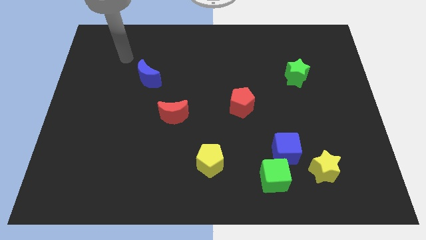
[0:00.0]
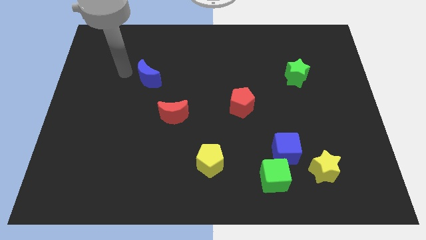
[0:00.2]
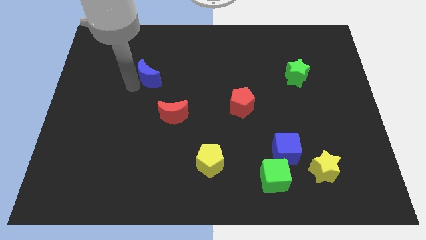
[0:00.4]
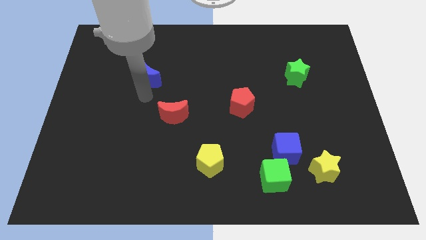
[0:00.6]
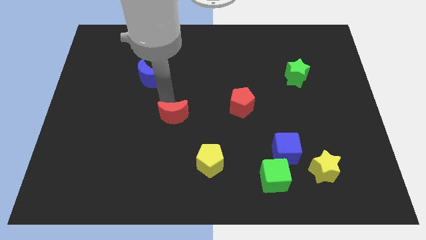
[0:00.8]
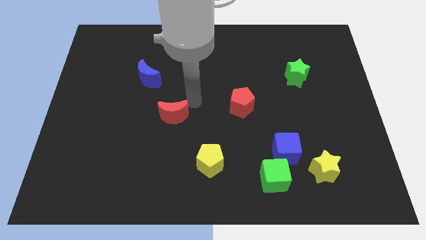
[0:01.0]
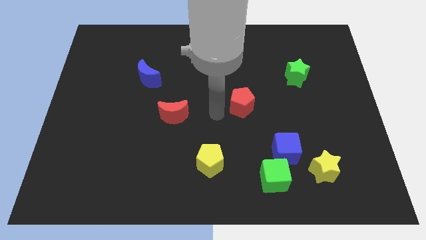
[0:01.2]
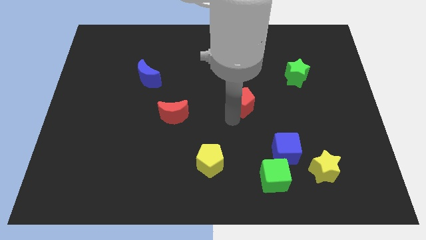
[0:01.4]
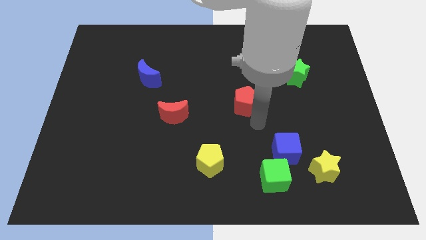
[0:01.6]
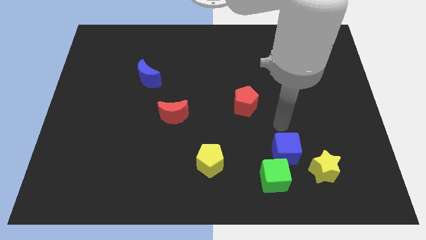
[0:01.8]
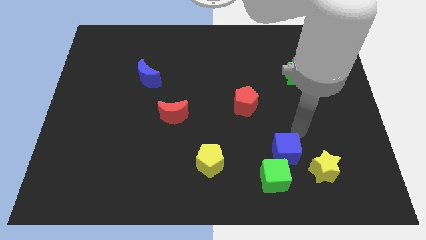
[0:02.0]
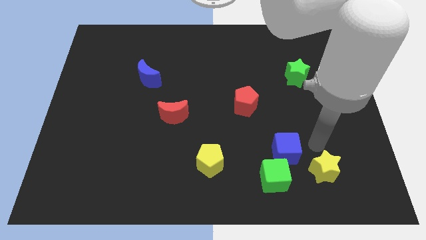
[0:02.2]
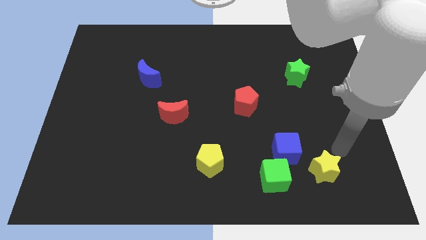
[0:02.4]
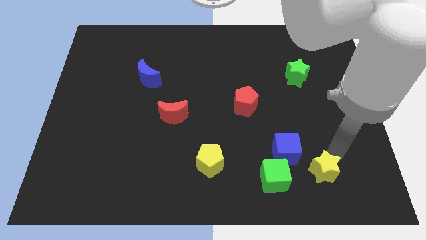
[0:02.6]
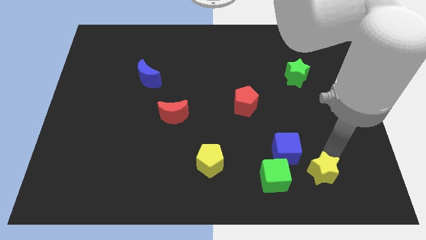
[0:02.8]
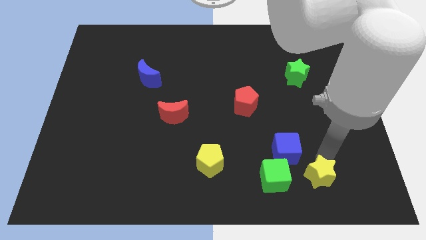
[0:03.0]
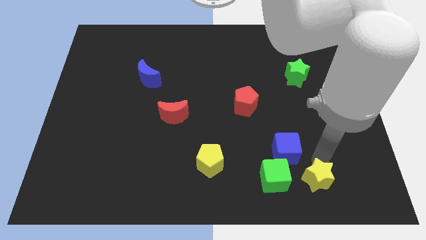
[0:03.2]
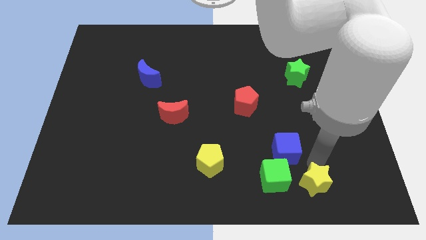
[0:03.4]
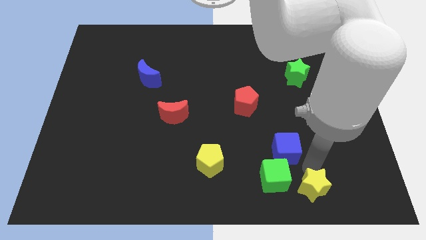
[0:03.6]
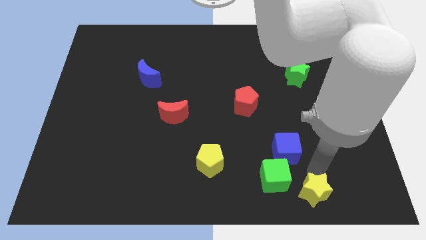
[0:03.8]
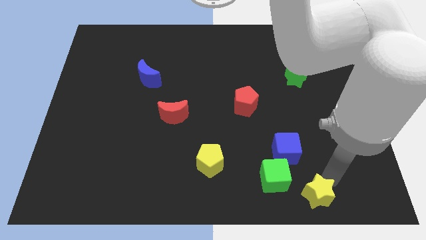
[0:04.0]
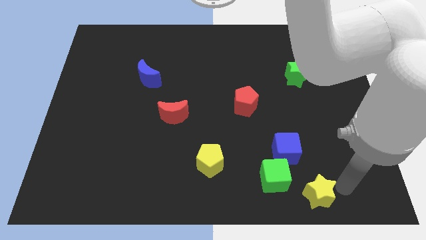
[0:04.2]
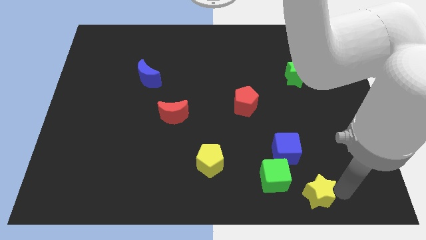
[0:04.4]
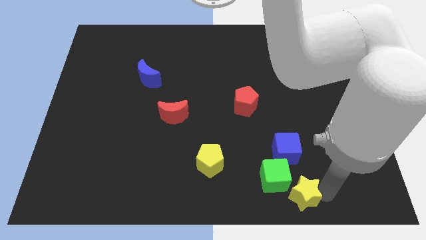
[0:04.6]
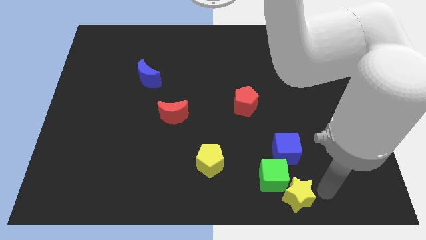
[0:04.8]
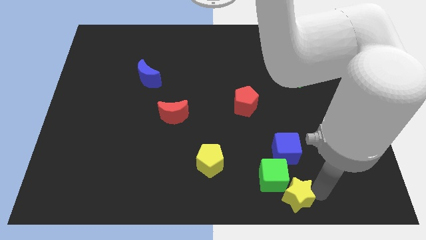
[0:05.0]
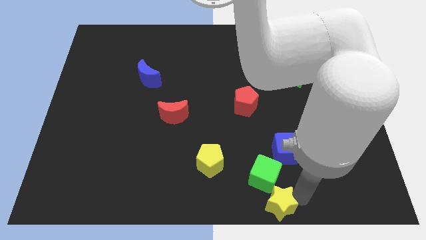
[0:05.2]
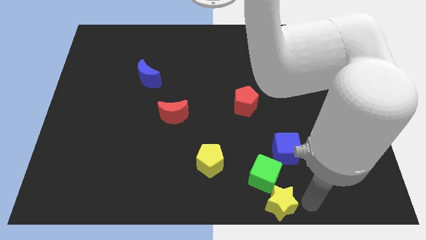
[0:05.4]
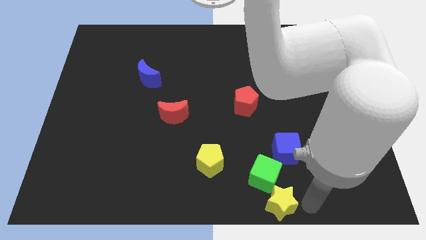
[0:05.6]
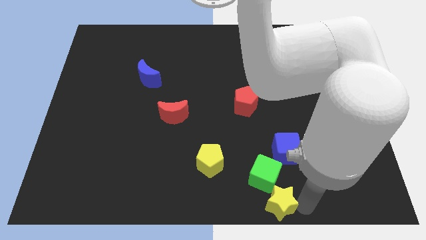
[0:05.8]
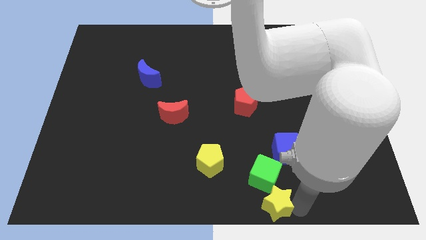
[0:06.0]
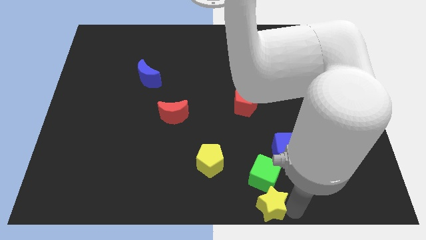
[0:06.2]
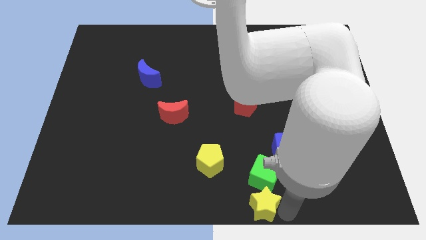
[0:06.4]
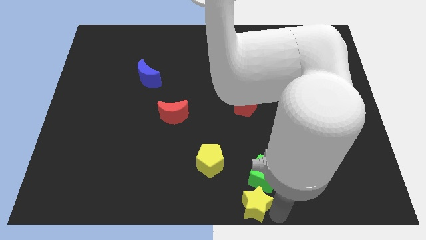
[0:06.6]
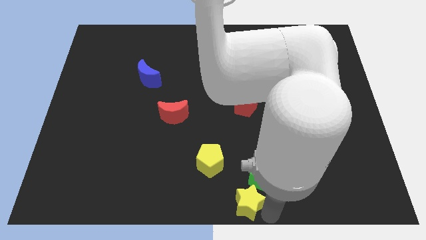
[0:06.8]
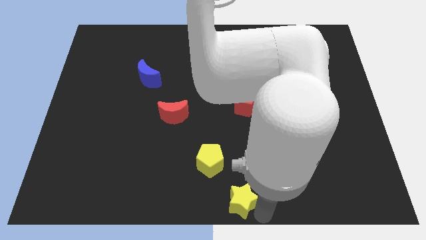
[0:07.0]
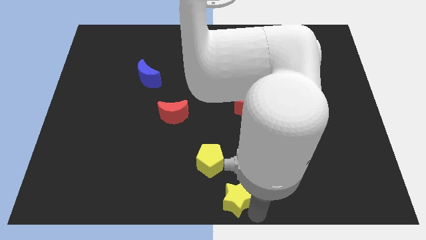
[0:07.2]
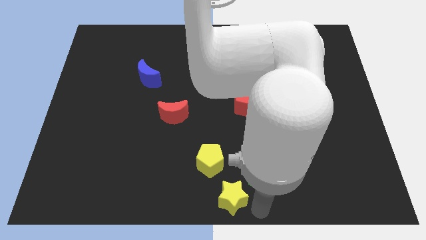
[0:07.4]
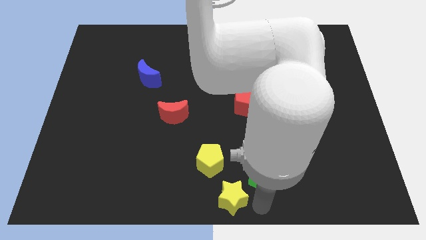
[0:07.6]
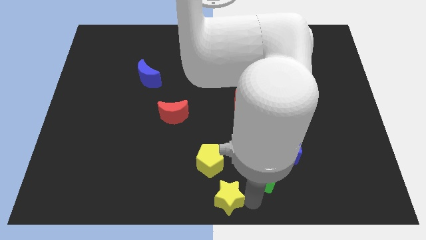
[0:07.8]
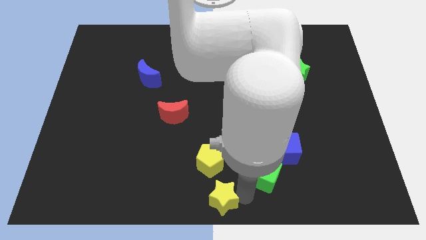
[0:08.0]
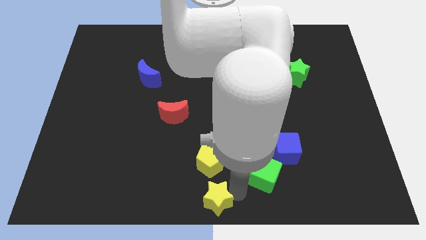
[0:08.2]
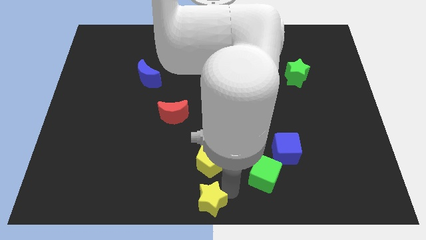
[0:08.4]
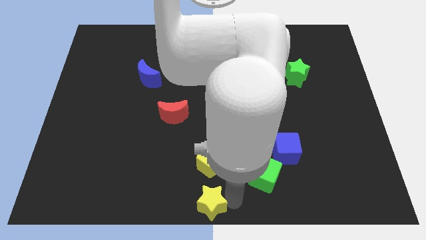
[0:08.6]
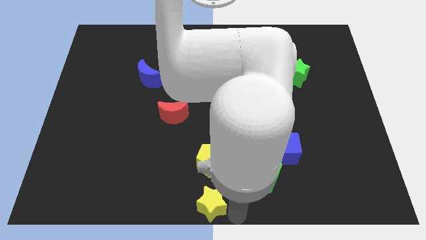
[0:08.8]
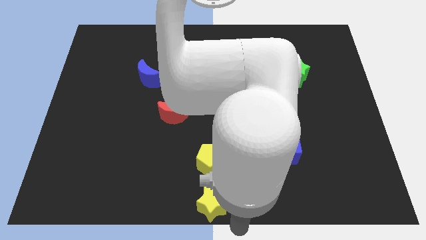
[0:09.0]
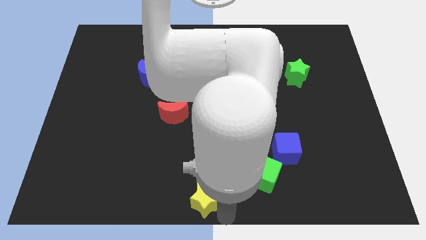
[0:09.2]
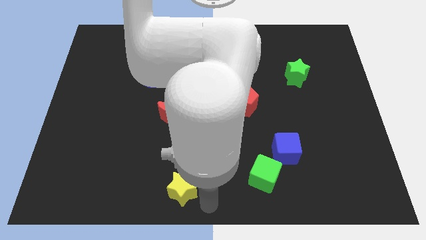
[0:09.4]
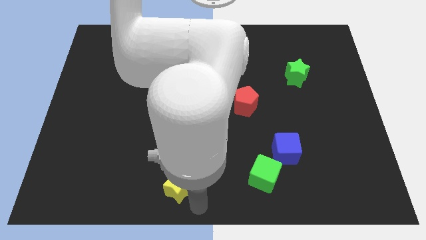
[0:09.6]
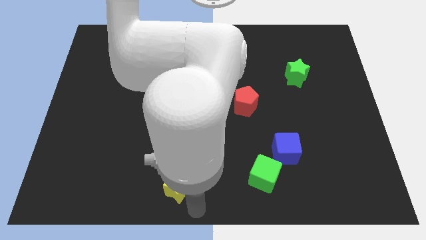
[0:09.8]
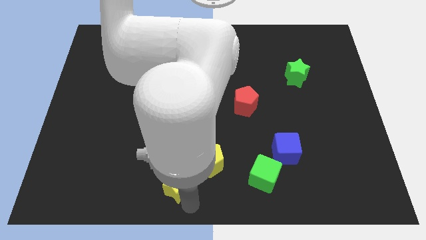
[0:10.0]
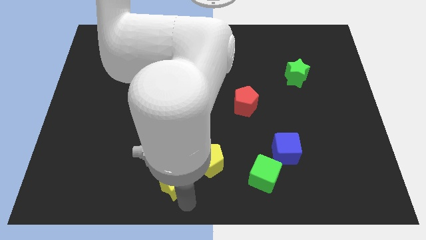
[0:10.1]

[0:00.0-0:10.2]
put the yellow star just left of the yellow pentagon

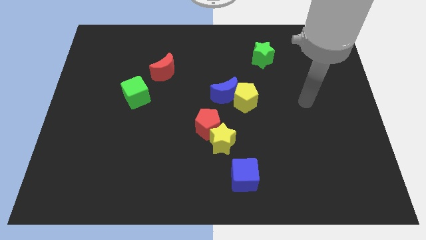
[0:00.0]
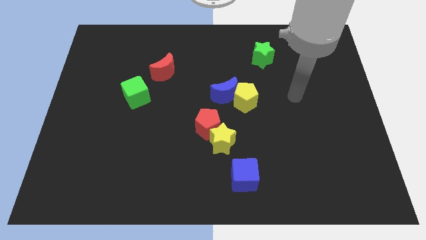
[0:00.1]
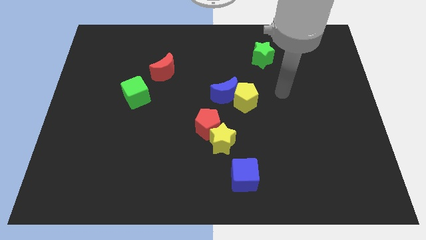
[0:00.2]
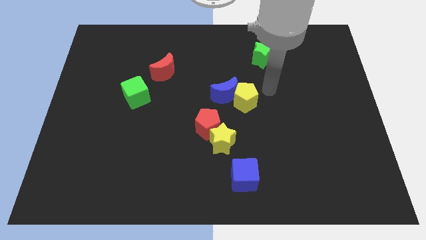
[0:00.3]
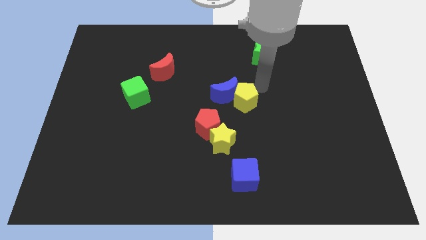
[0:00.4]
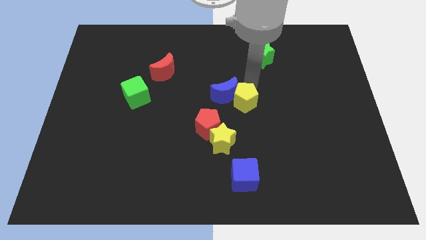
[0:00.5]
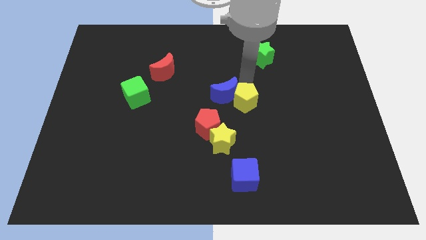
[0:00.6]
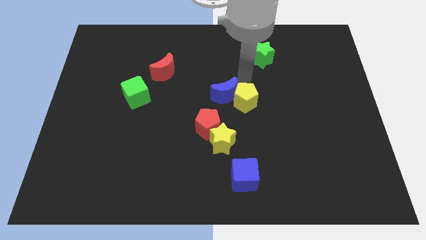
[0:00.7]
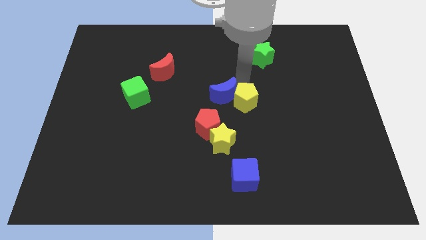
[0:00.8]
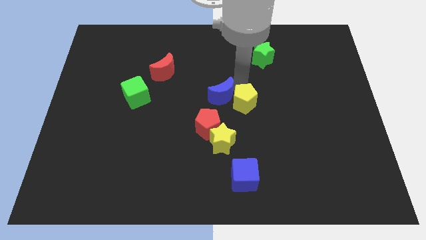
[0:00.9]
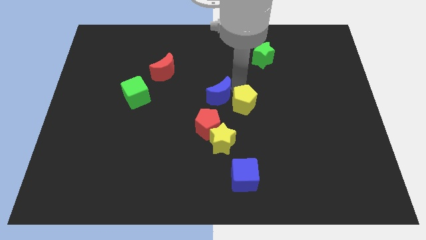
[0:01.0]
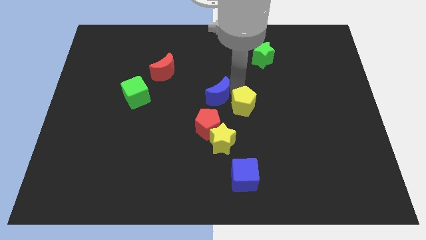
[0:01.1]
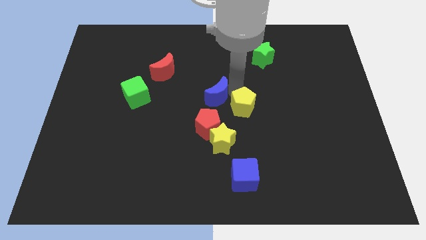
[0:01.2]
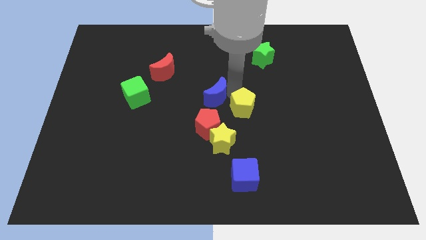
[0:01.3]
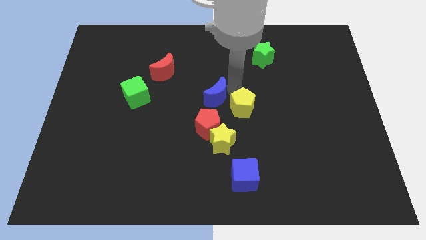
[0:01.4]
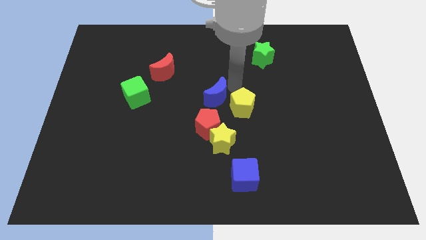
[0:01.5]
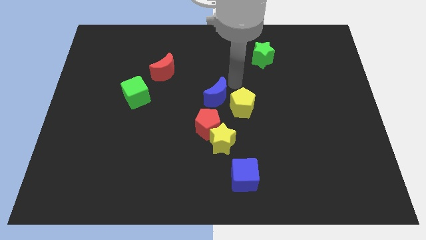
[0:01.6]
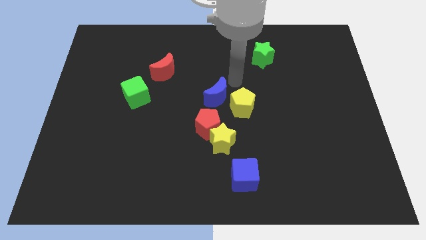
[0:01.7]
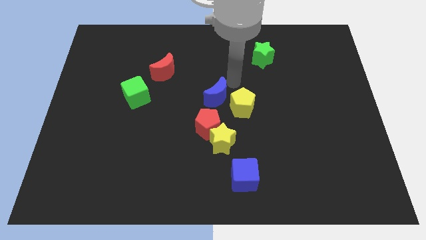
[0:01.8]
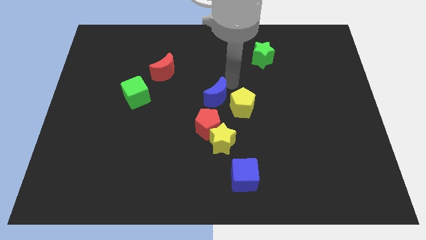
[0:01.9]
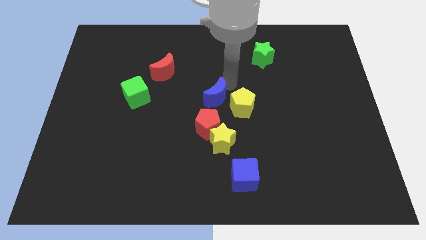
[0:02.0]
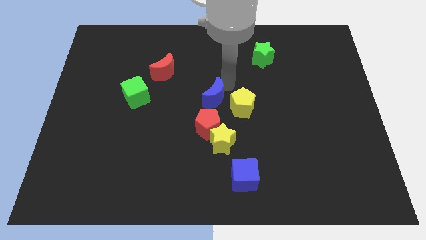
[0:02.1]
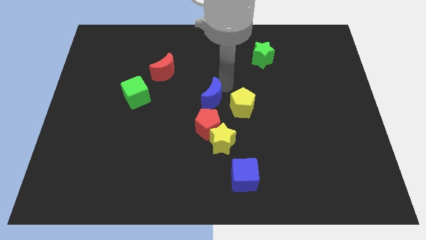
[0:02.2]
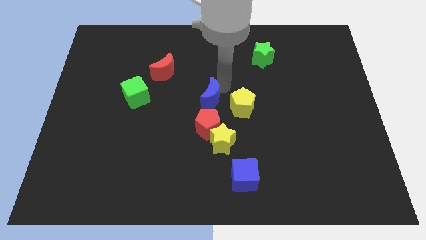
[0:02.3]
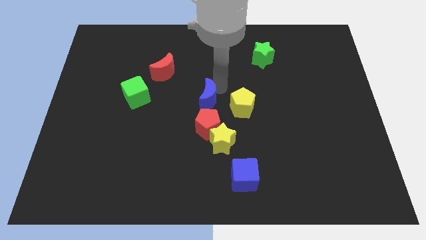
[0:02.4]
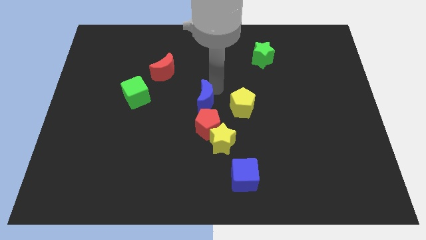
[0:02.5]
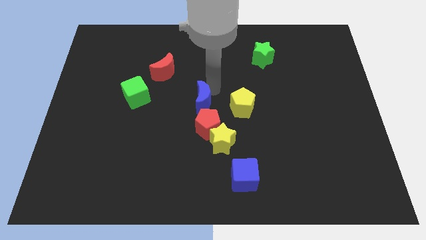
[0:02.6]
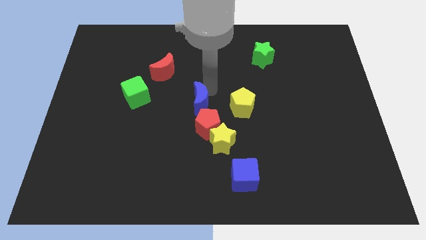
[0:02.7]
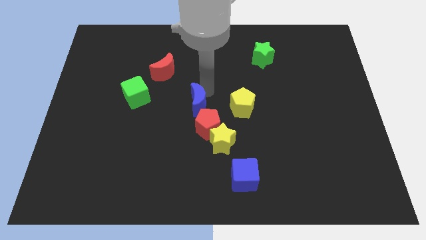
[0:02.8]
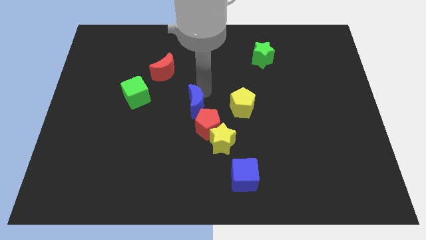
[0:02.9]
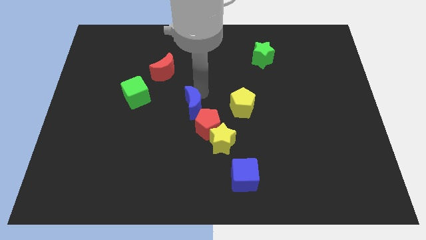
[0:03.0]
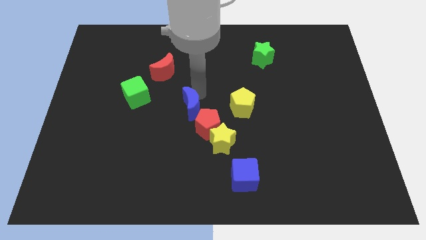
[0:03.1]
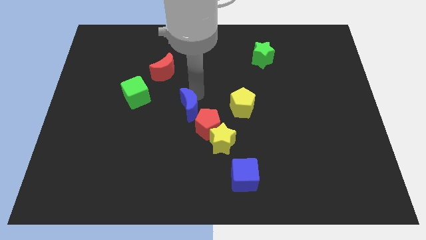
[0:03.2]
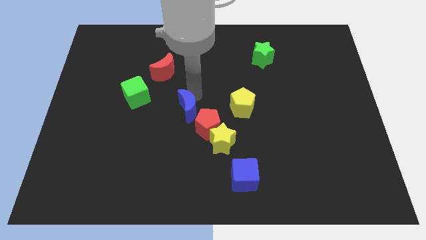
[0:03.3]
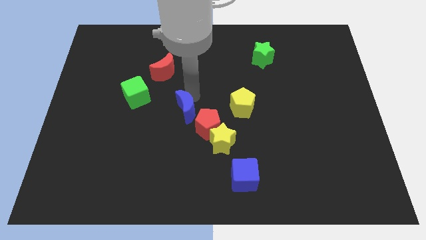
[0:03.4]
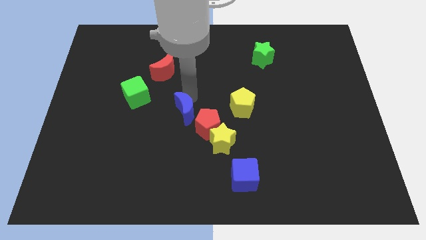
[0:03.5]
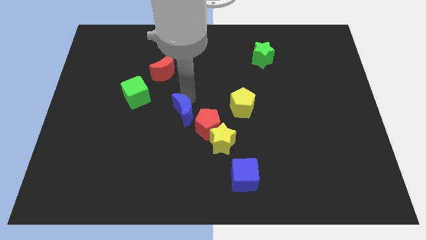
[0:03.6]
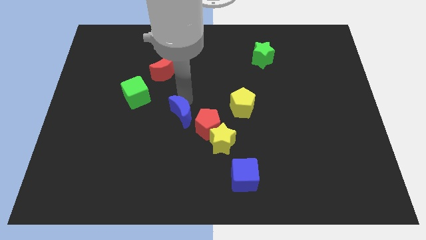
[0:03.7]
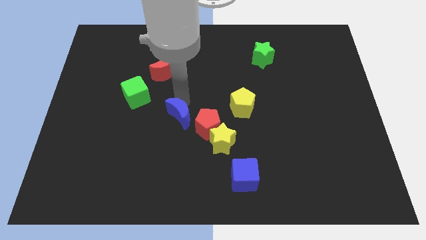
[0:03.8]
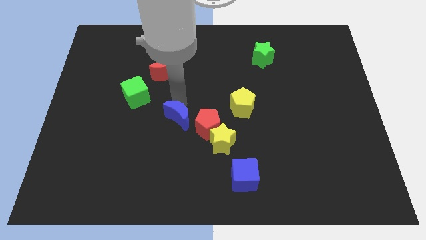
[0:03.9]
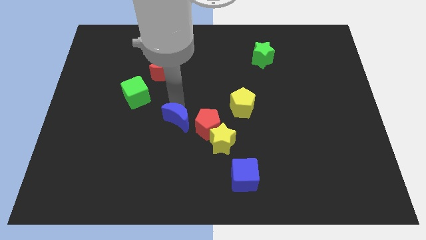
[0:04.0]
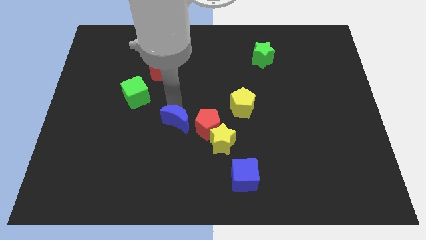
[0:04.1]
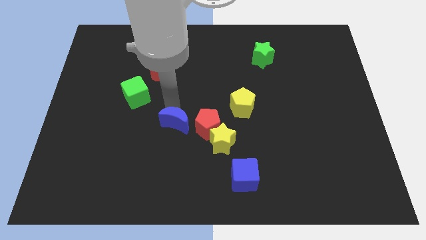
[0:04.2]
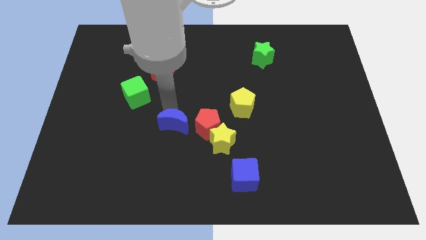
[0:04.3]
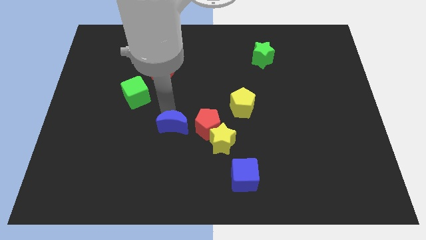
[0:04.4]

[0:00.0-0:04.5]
move the blue moon just left of the yellow star
